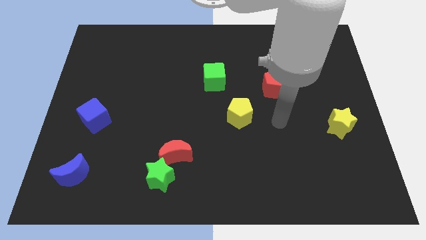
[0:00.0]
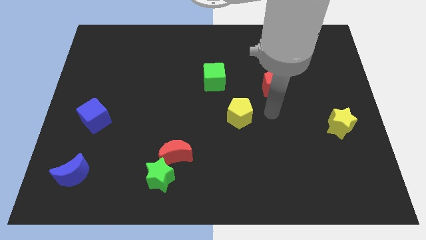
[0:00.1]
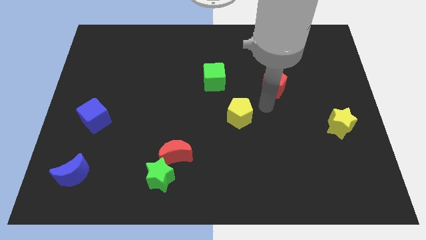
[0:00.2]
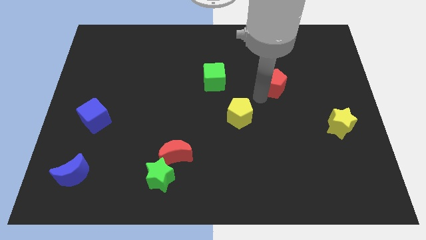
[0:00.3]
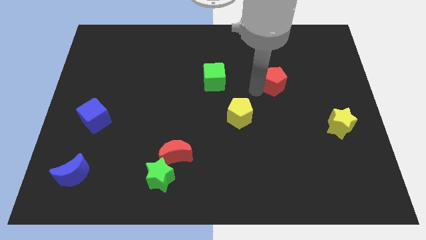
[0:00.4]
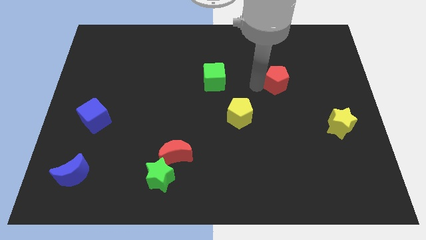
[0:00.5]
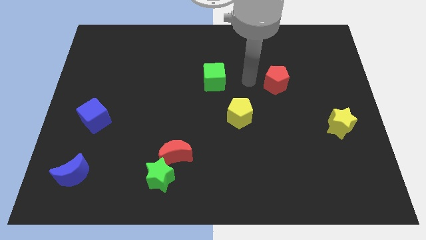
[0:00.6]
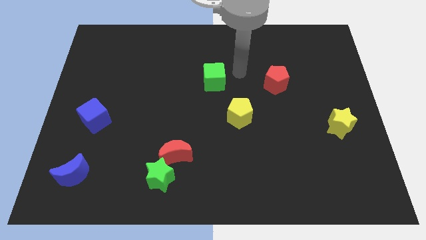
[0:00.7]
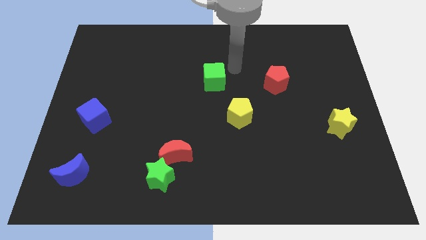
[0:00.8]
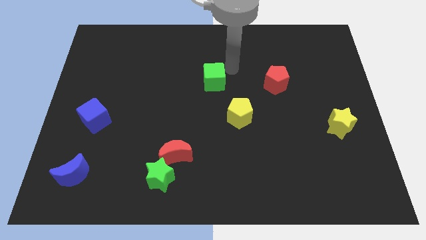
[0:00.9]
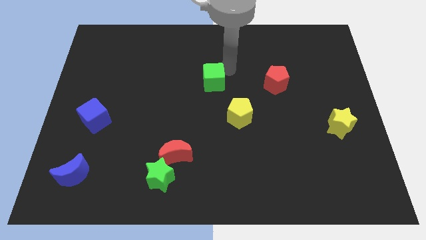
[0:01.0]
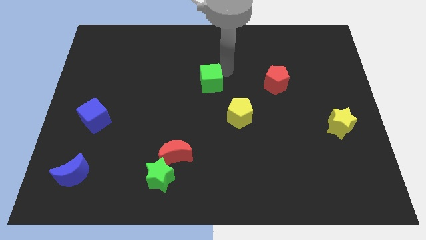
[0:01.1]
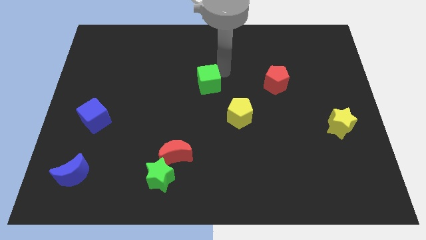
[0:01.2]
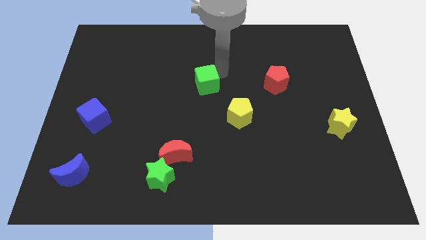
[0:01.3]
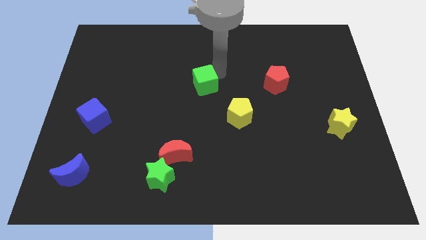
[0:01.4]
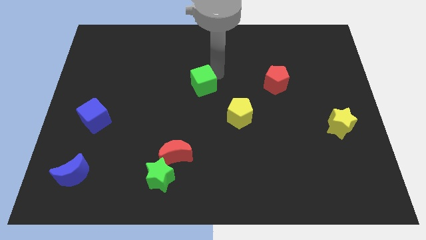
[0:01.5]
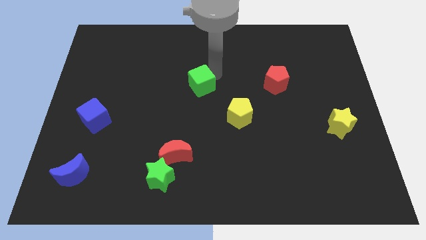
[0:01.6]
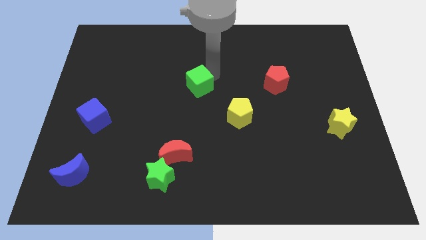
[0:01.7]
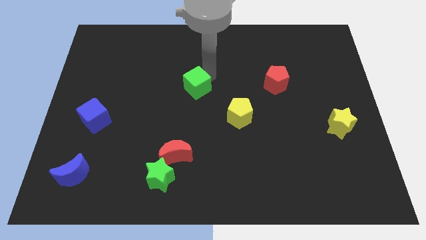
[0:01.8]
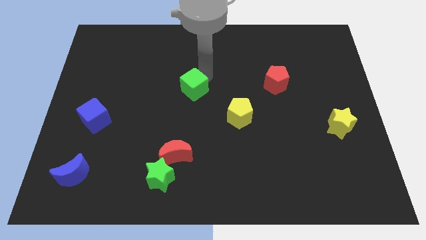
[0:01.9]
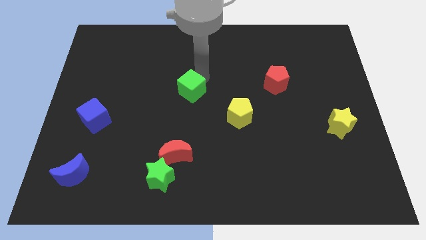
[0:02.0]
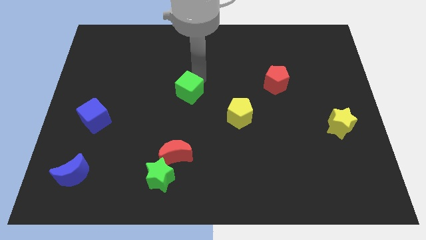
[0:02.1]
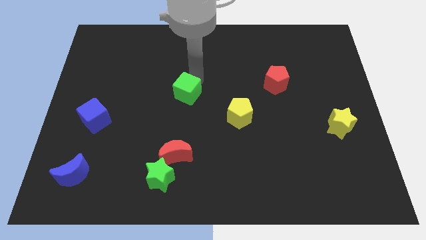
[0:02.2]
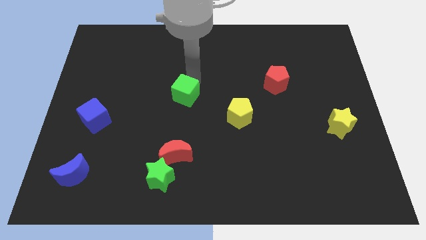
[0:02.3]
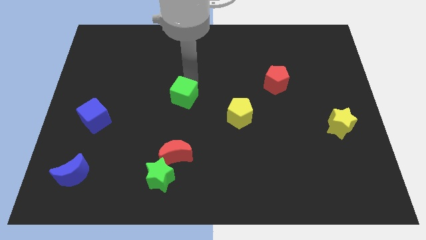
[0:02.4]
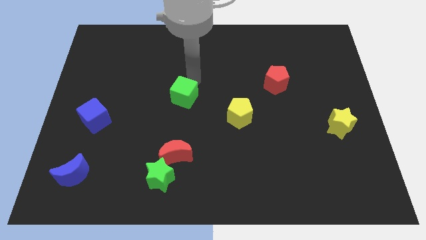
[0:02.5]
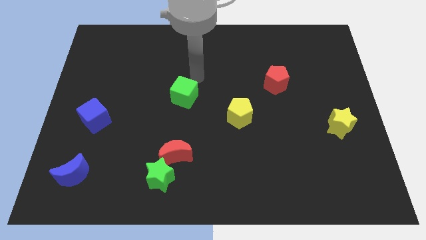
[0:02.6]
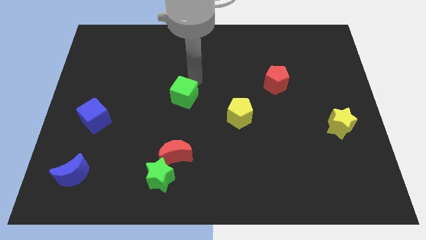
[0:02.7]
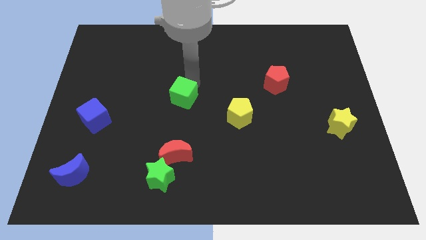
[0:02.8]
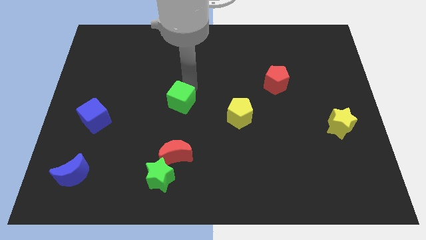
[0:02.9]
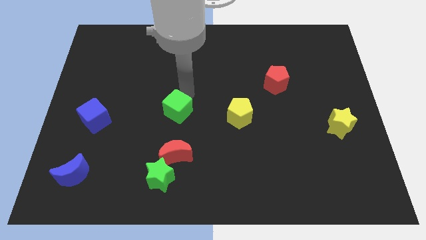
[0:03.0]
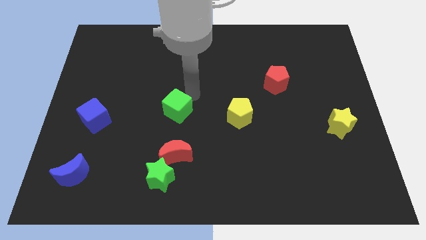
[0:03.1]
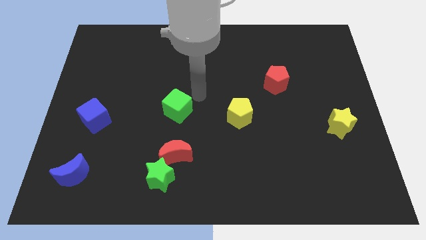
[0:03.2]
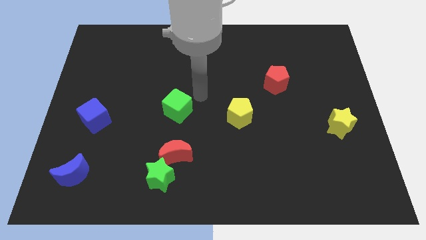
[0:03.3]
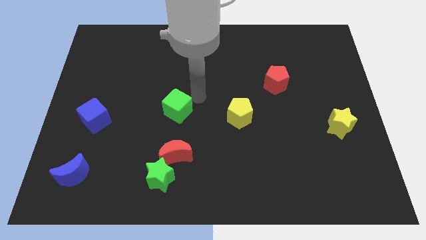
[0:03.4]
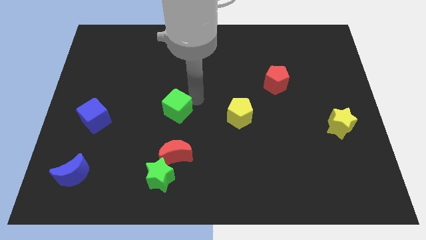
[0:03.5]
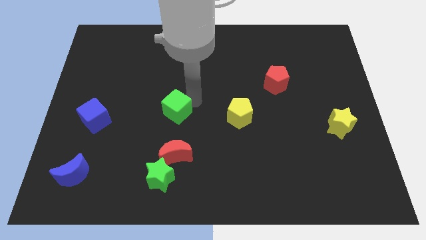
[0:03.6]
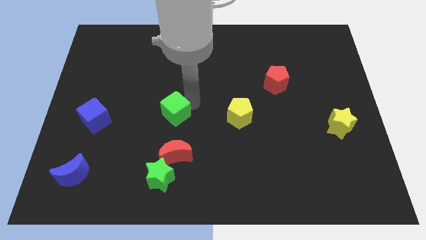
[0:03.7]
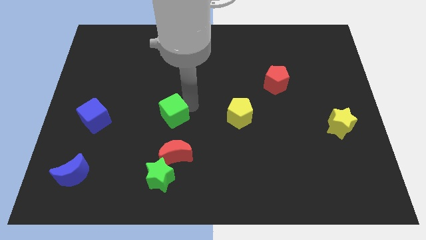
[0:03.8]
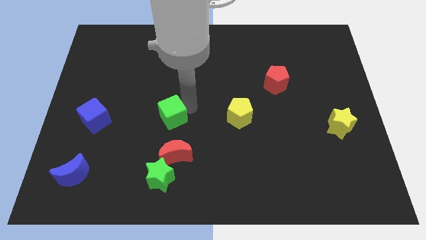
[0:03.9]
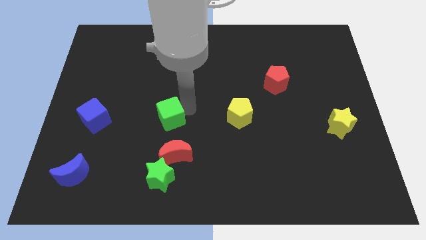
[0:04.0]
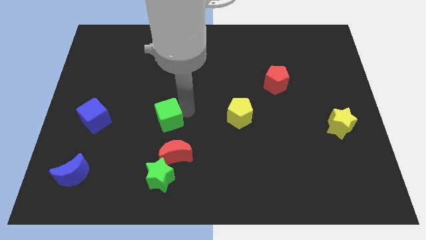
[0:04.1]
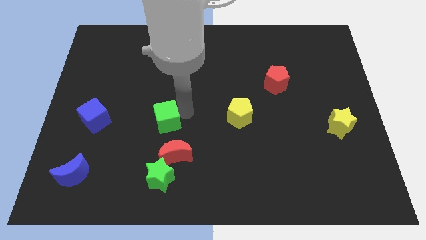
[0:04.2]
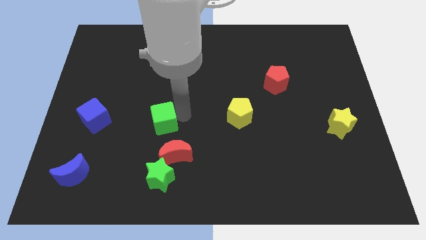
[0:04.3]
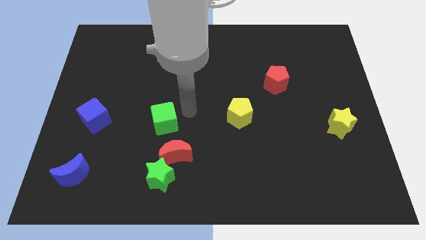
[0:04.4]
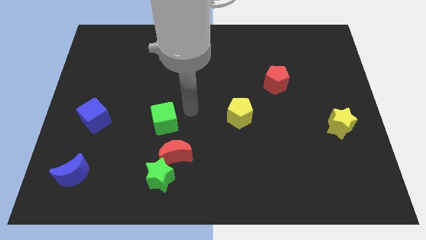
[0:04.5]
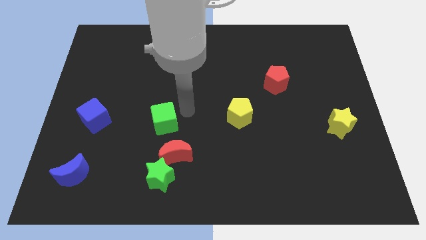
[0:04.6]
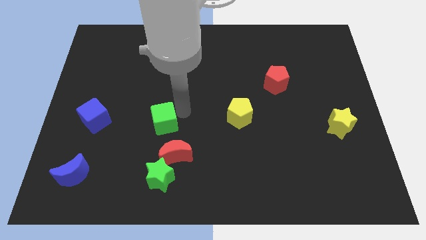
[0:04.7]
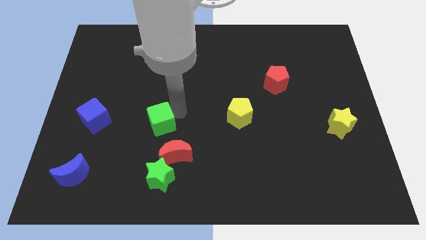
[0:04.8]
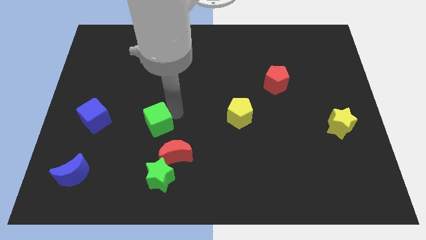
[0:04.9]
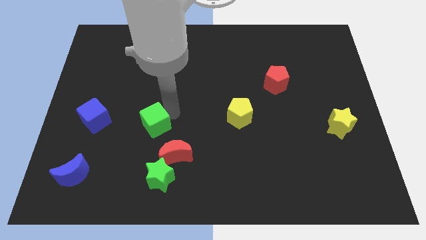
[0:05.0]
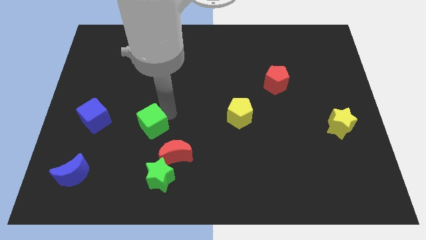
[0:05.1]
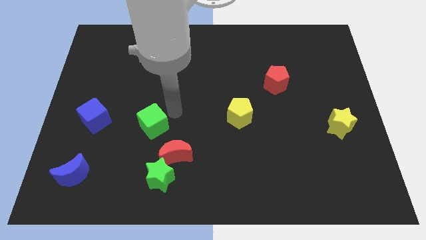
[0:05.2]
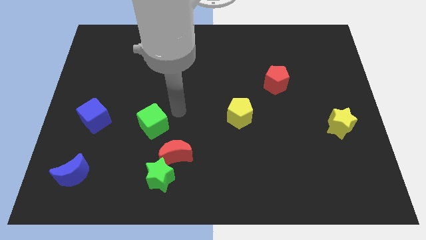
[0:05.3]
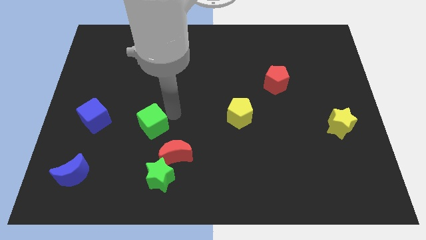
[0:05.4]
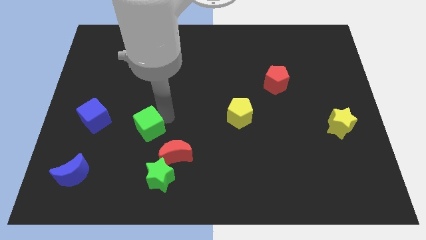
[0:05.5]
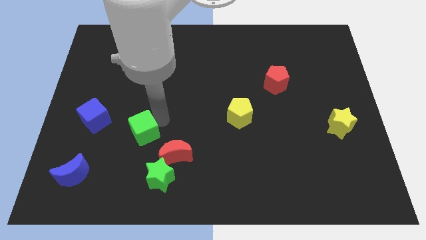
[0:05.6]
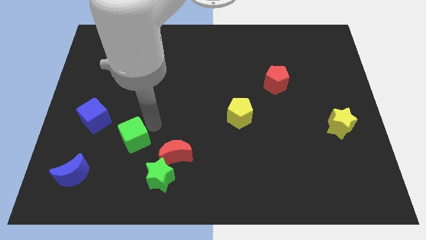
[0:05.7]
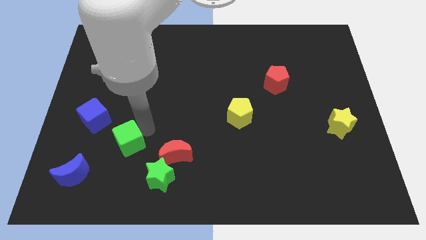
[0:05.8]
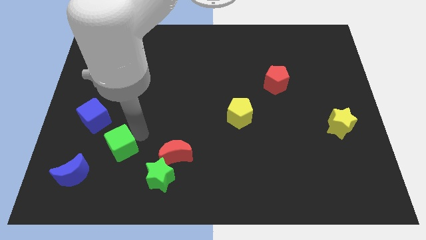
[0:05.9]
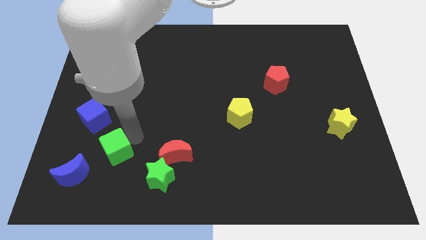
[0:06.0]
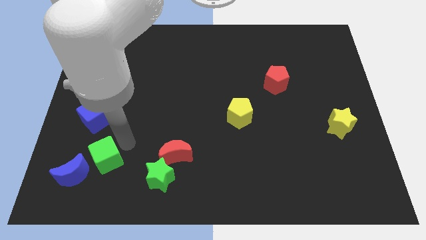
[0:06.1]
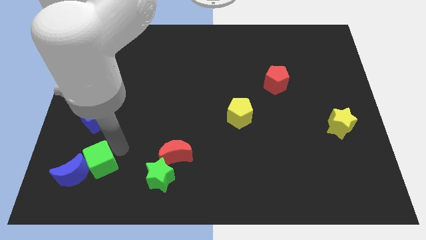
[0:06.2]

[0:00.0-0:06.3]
move the green cube next to the blue moon
